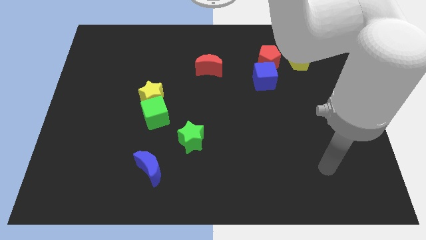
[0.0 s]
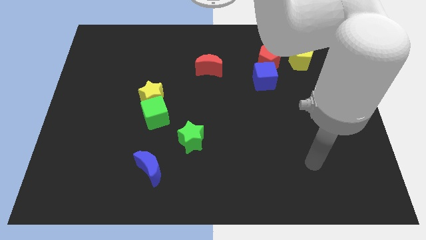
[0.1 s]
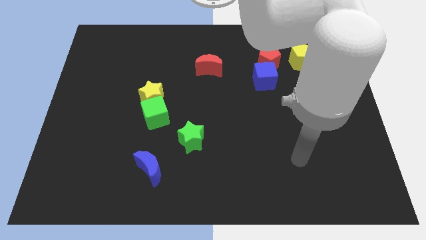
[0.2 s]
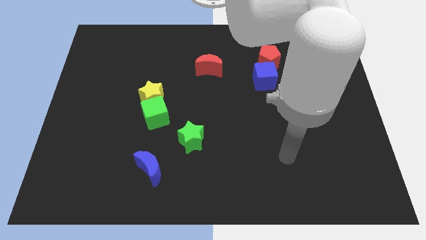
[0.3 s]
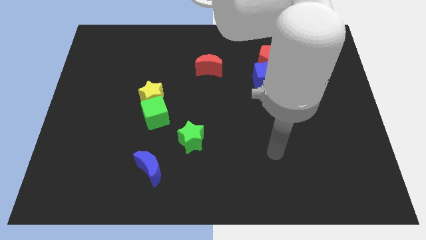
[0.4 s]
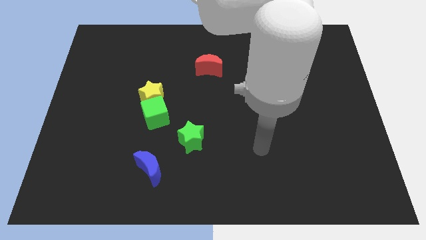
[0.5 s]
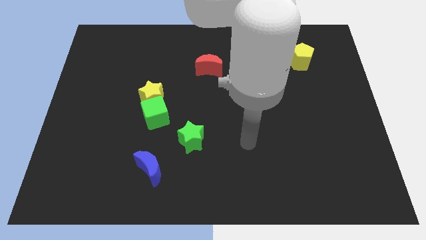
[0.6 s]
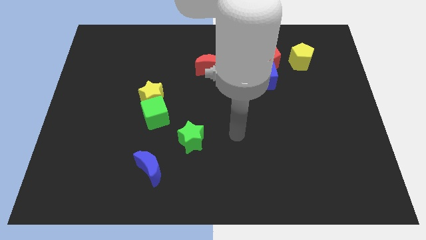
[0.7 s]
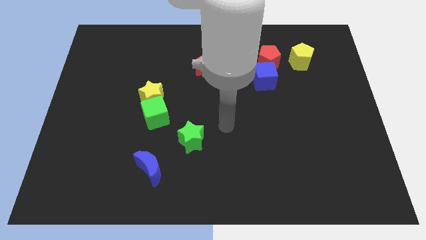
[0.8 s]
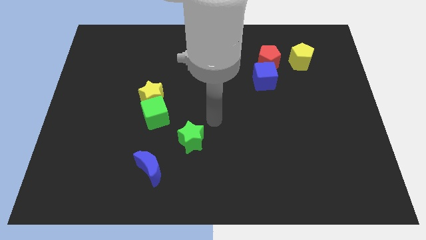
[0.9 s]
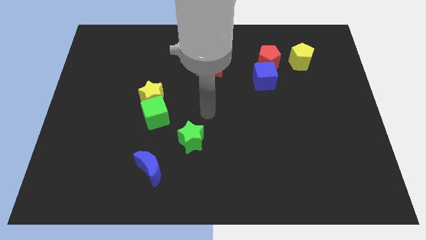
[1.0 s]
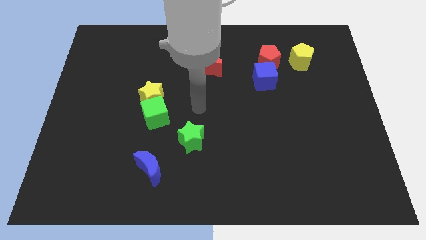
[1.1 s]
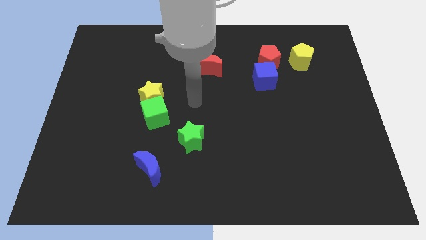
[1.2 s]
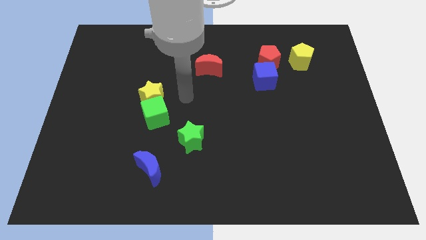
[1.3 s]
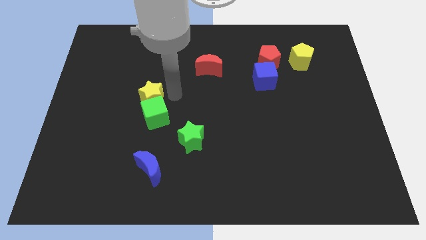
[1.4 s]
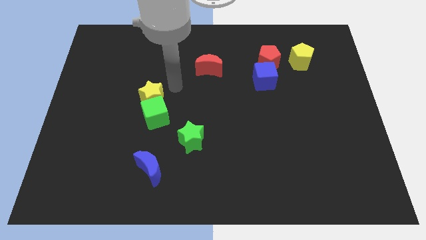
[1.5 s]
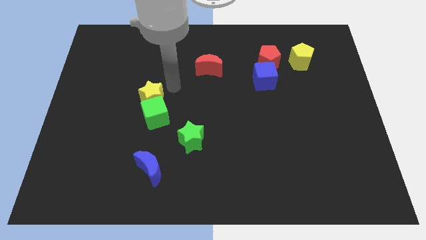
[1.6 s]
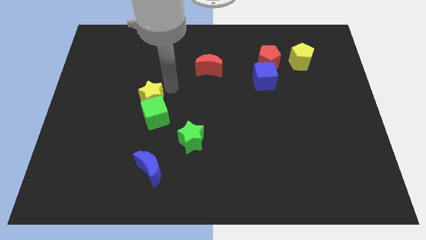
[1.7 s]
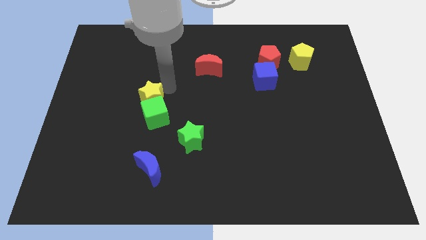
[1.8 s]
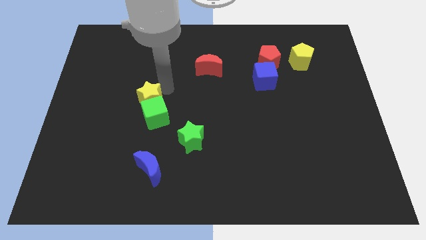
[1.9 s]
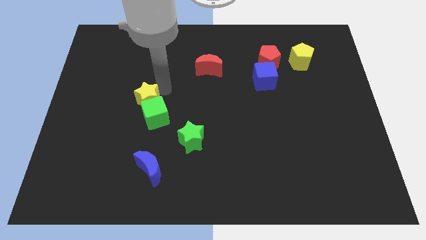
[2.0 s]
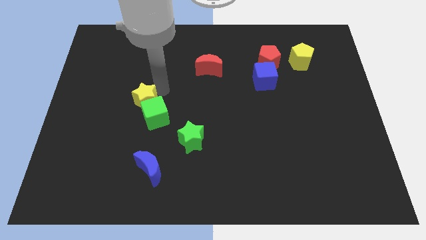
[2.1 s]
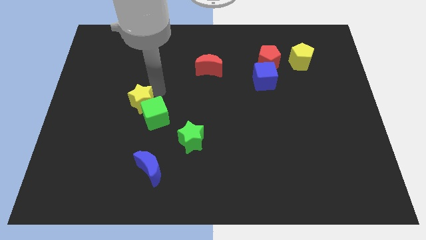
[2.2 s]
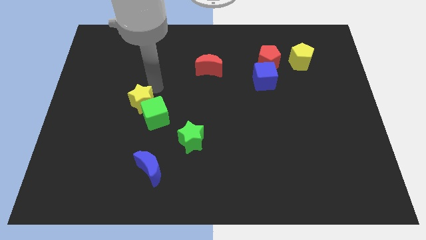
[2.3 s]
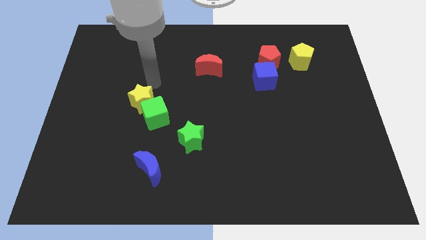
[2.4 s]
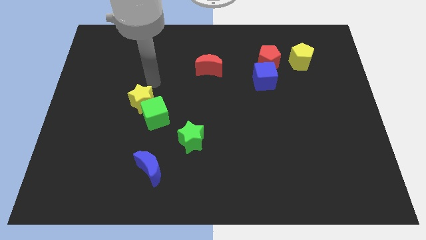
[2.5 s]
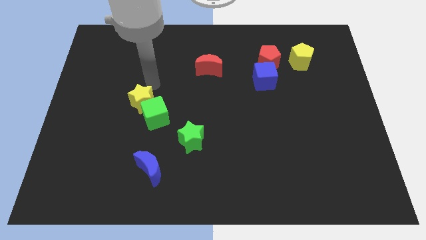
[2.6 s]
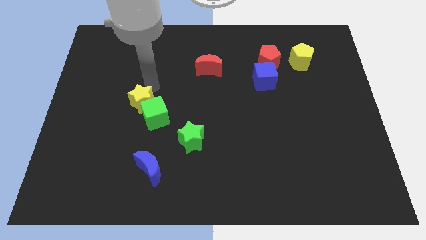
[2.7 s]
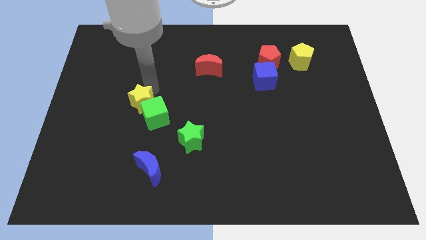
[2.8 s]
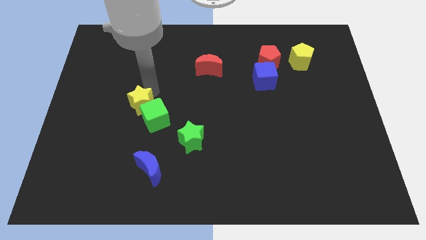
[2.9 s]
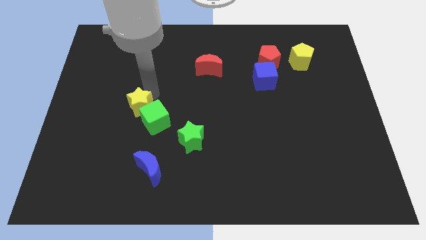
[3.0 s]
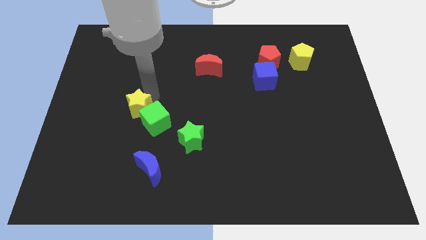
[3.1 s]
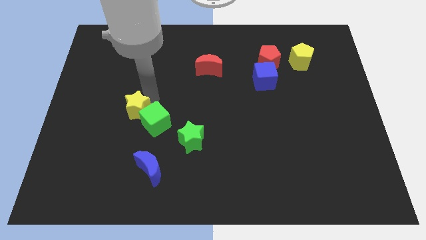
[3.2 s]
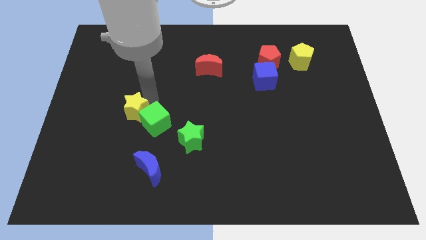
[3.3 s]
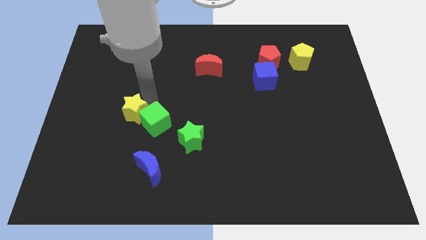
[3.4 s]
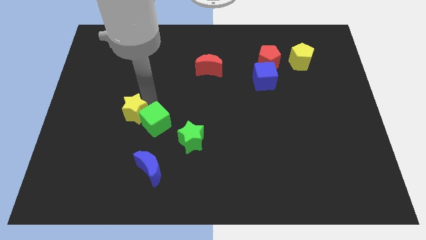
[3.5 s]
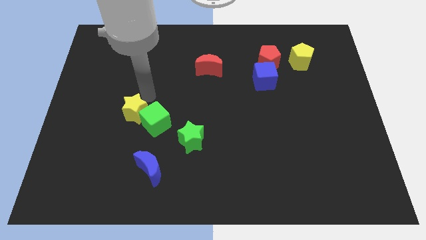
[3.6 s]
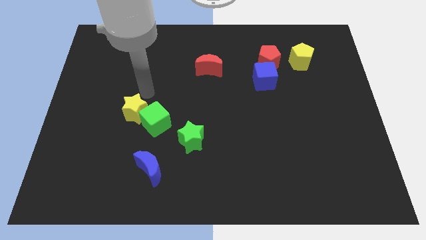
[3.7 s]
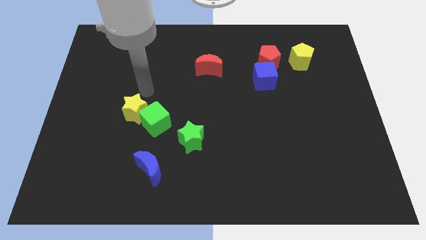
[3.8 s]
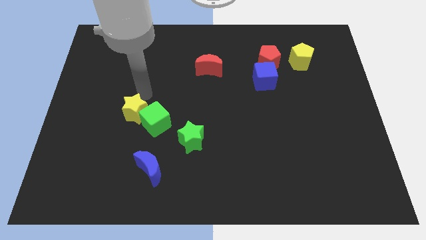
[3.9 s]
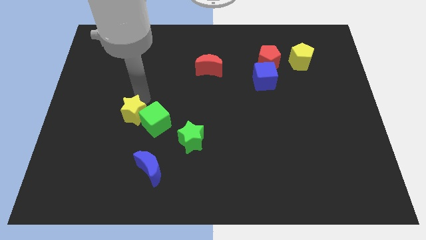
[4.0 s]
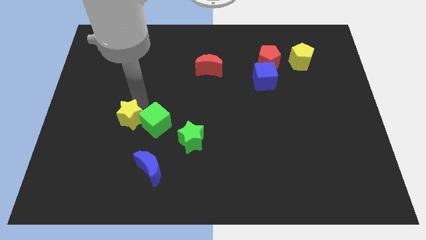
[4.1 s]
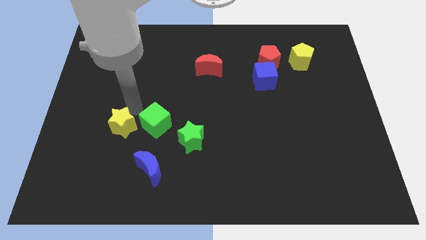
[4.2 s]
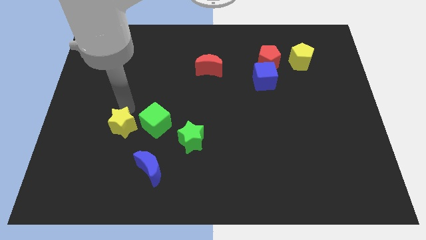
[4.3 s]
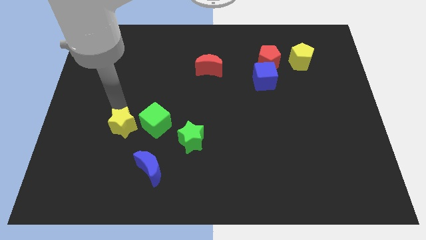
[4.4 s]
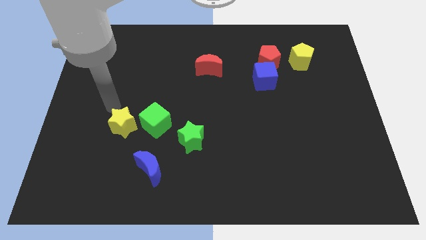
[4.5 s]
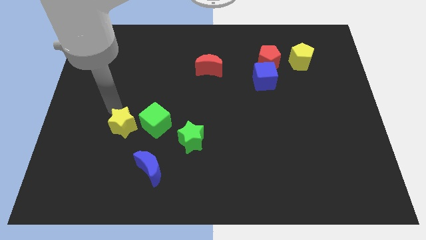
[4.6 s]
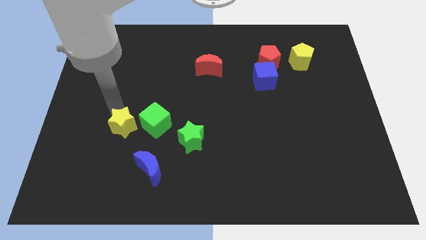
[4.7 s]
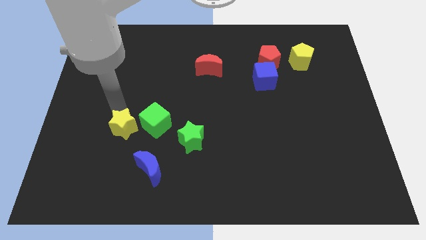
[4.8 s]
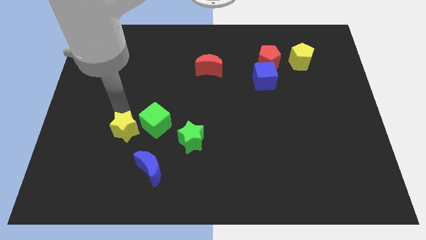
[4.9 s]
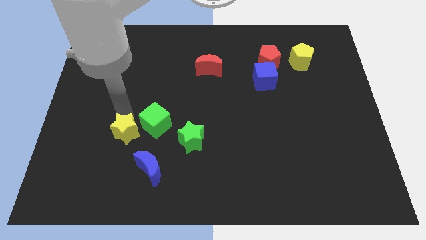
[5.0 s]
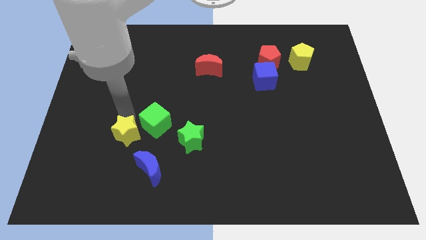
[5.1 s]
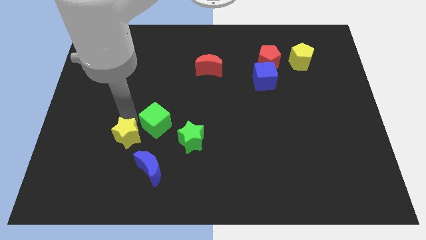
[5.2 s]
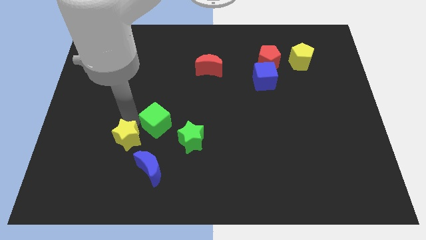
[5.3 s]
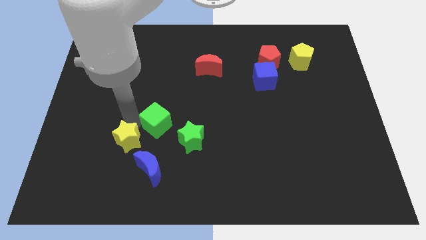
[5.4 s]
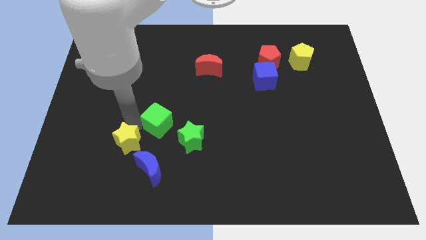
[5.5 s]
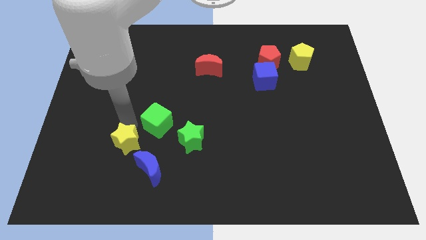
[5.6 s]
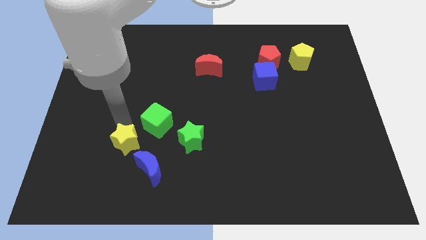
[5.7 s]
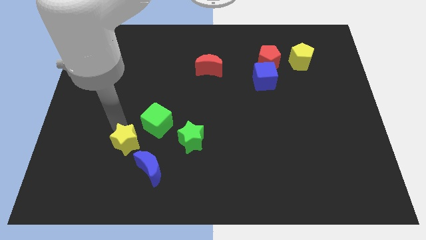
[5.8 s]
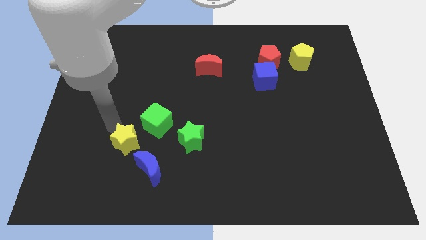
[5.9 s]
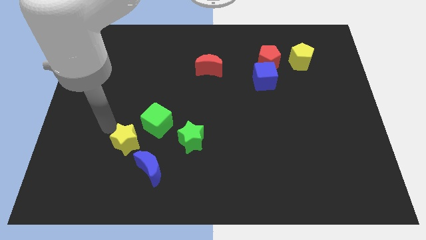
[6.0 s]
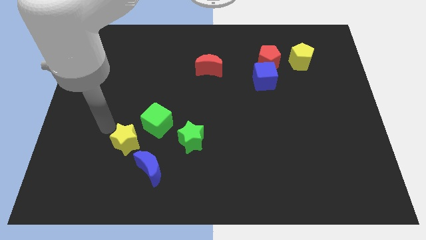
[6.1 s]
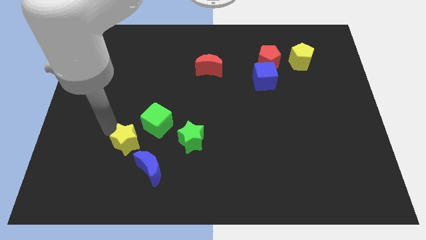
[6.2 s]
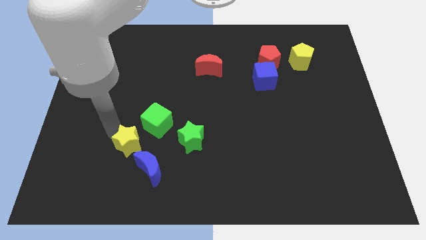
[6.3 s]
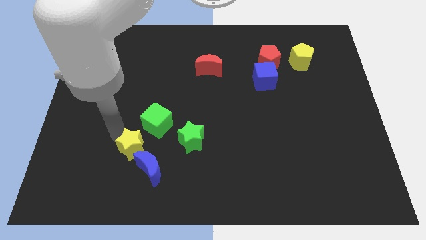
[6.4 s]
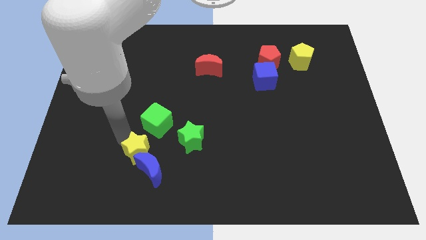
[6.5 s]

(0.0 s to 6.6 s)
push the yellow star next to the blue moon

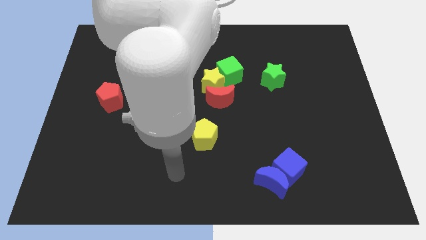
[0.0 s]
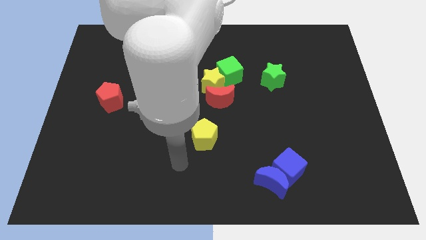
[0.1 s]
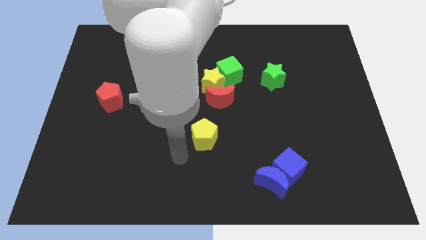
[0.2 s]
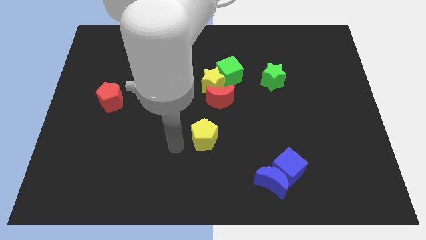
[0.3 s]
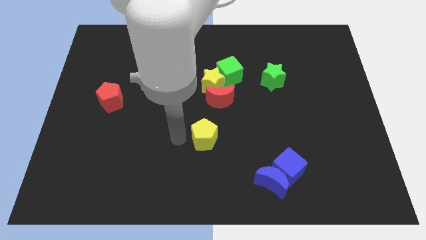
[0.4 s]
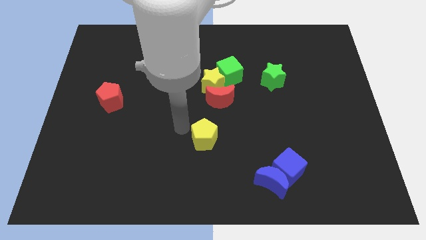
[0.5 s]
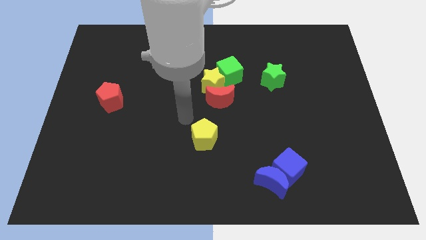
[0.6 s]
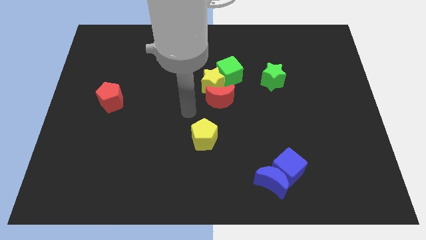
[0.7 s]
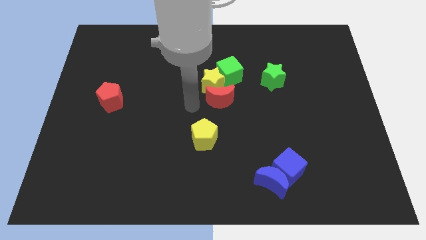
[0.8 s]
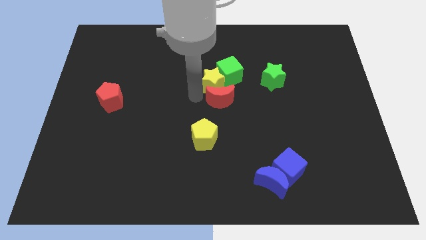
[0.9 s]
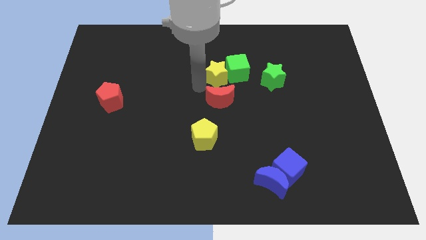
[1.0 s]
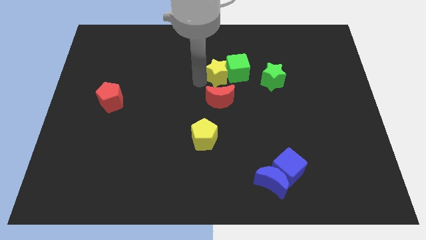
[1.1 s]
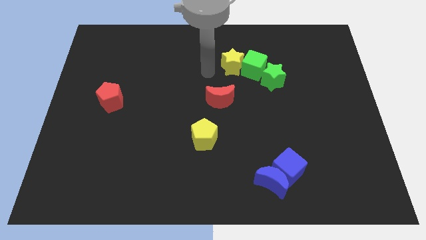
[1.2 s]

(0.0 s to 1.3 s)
put the green cube to the green star

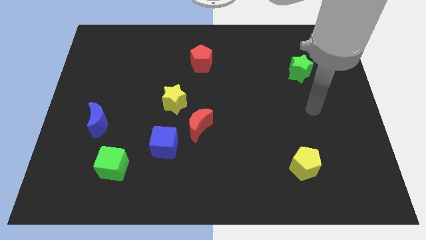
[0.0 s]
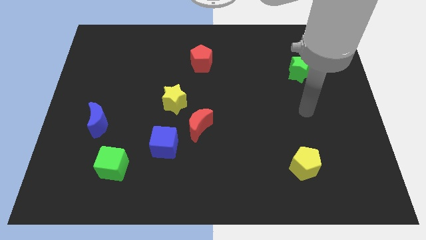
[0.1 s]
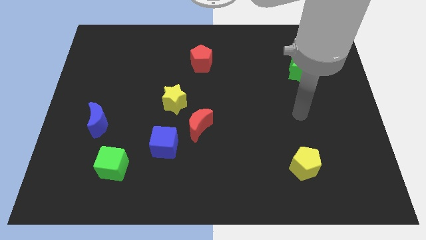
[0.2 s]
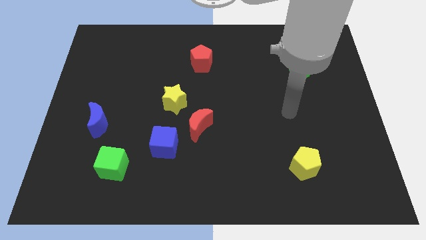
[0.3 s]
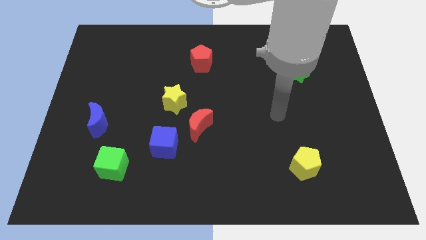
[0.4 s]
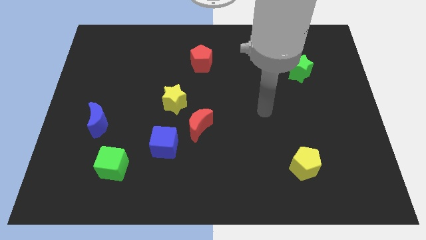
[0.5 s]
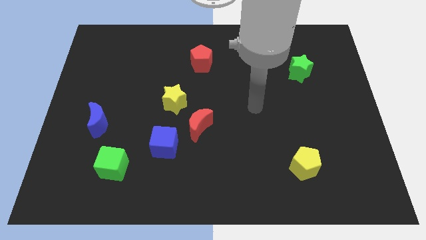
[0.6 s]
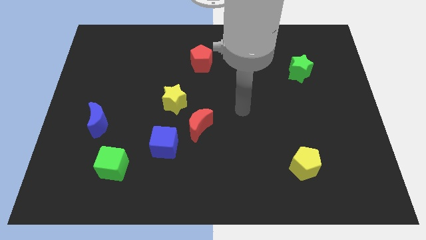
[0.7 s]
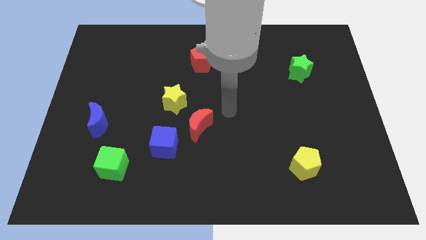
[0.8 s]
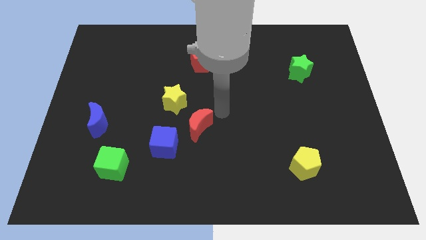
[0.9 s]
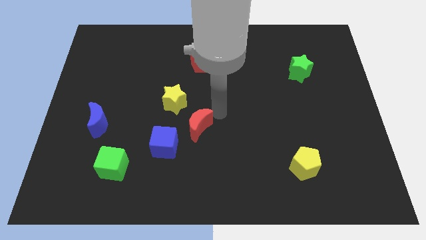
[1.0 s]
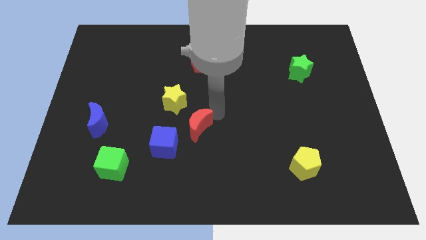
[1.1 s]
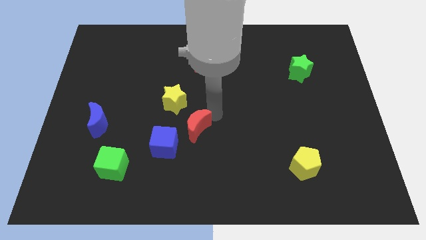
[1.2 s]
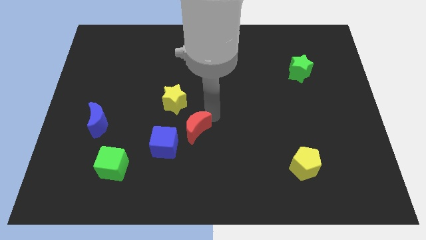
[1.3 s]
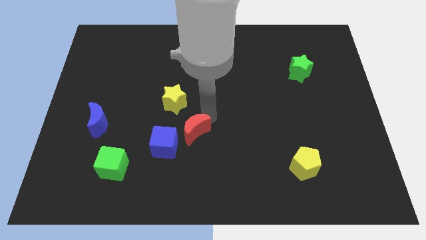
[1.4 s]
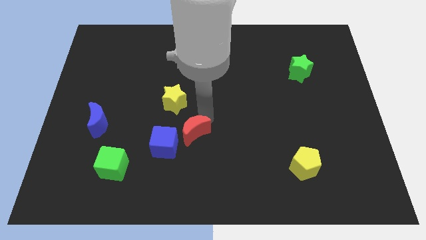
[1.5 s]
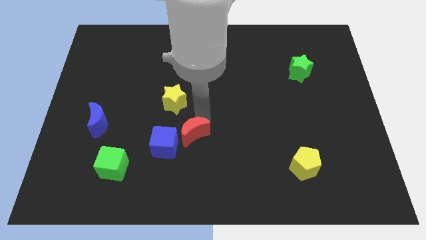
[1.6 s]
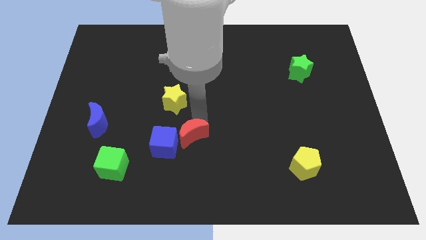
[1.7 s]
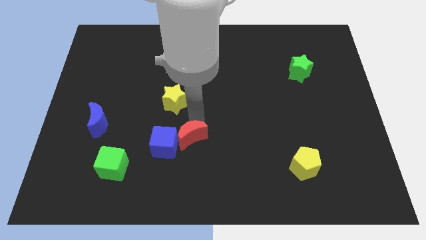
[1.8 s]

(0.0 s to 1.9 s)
put the red moon next to the blue cube
